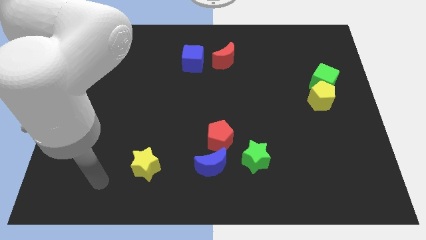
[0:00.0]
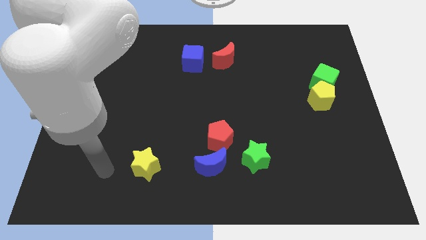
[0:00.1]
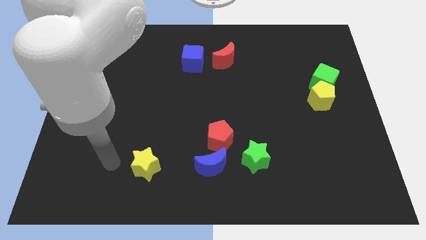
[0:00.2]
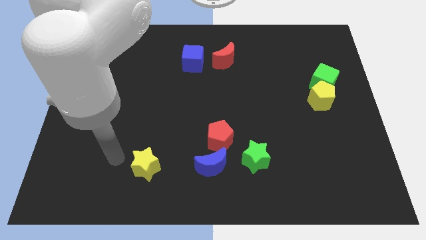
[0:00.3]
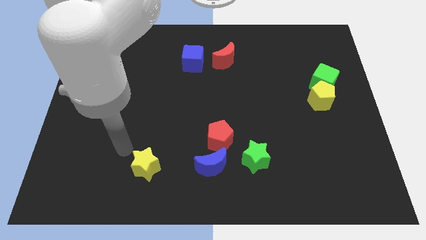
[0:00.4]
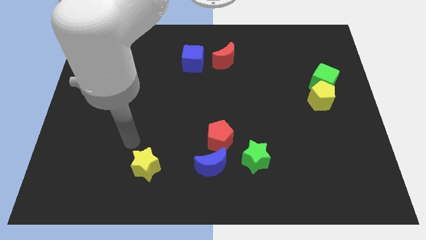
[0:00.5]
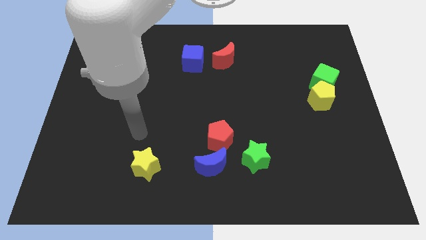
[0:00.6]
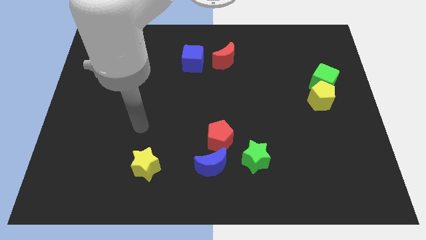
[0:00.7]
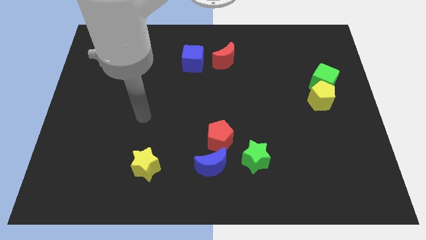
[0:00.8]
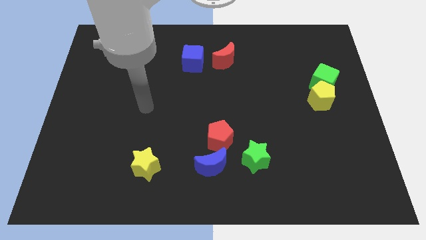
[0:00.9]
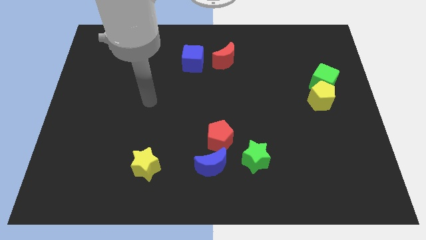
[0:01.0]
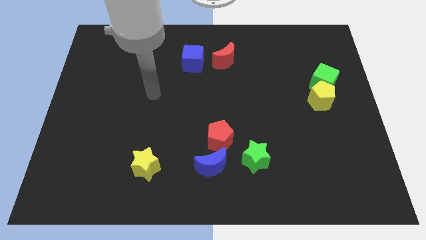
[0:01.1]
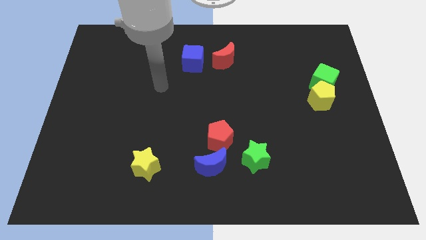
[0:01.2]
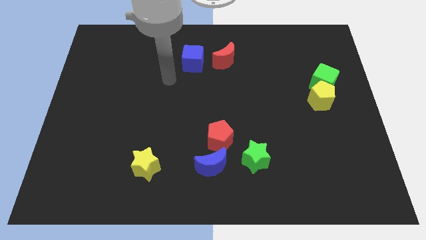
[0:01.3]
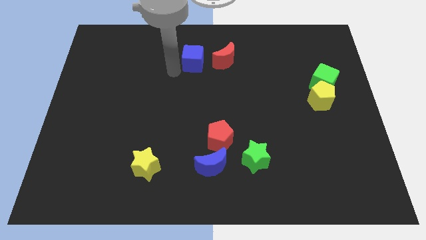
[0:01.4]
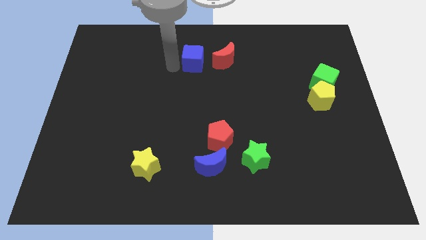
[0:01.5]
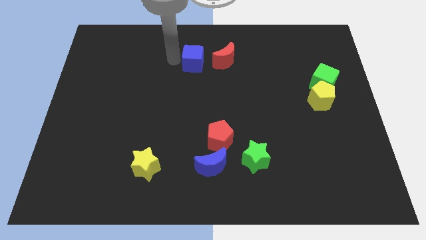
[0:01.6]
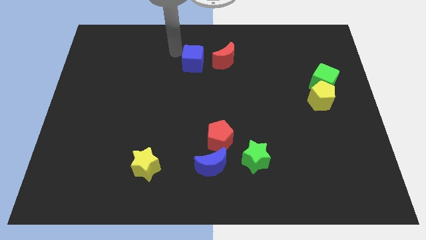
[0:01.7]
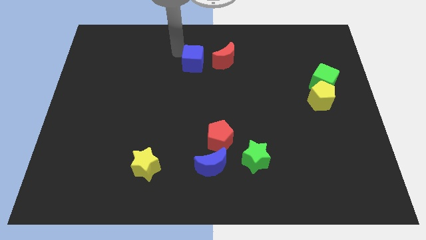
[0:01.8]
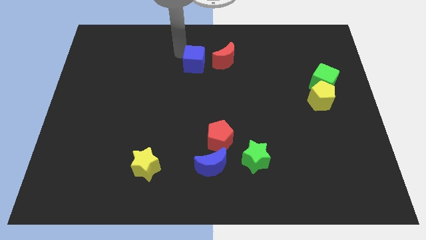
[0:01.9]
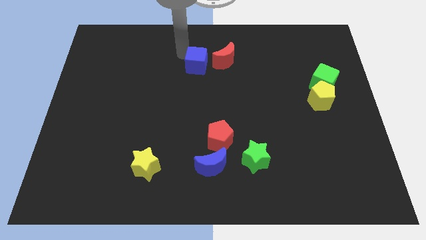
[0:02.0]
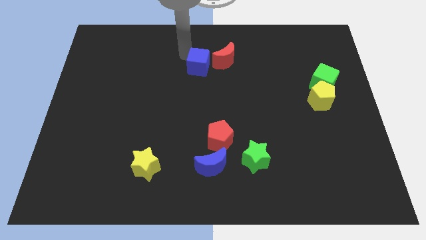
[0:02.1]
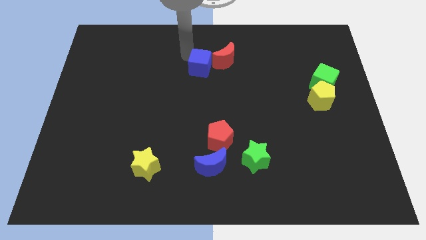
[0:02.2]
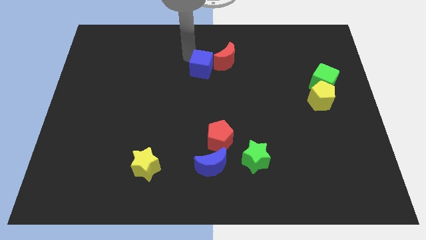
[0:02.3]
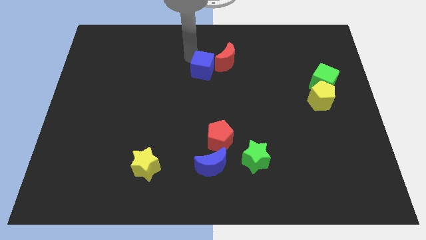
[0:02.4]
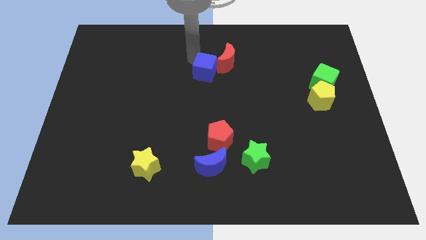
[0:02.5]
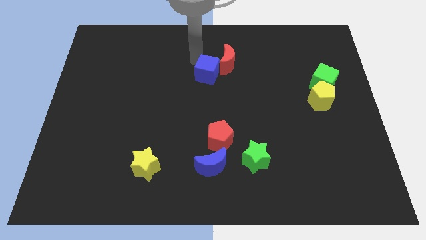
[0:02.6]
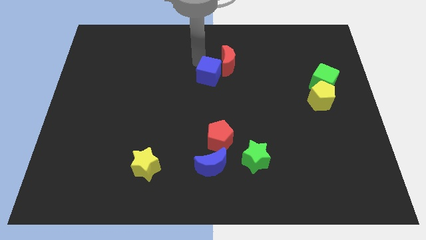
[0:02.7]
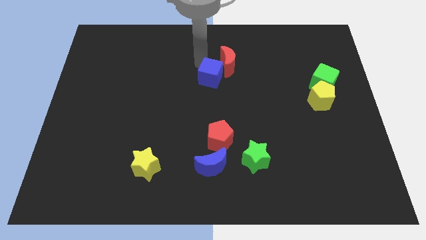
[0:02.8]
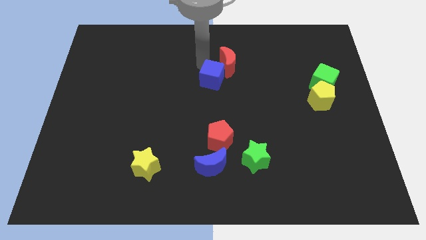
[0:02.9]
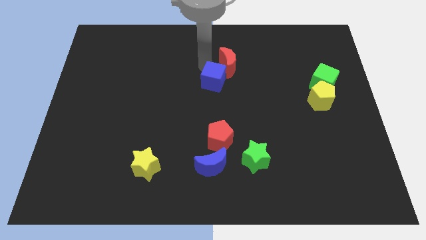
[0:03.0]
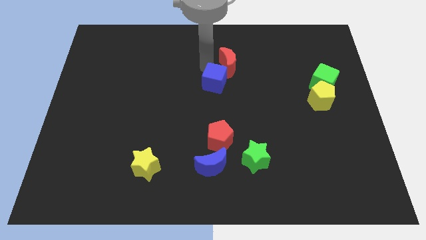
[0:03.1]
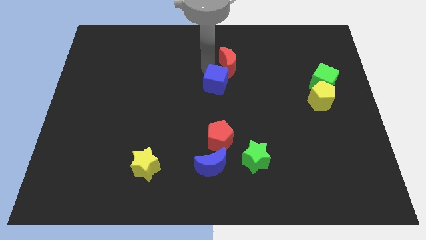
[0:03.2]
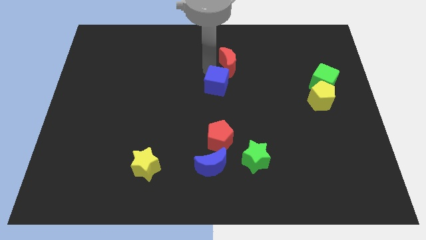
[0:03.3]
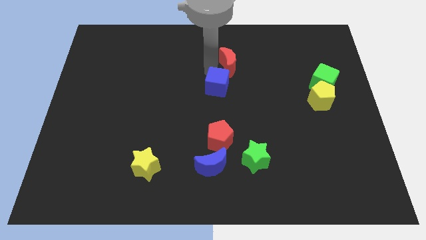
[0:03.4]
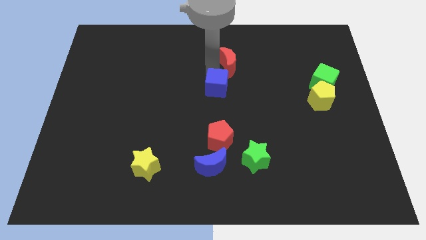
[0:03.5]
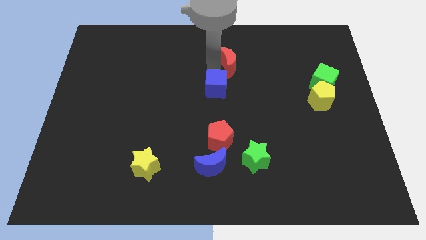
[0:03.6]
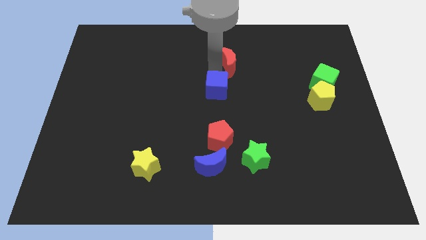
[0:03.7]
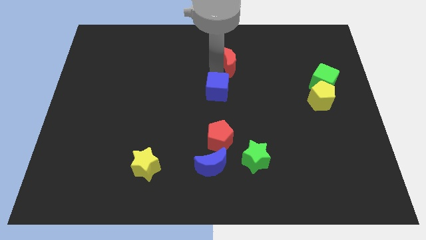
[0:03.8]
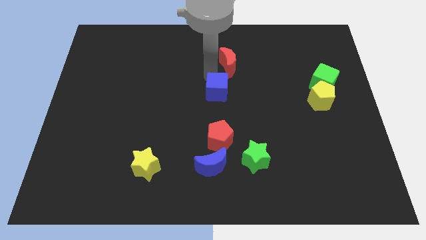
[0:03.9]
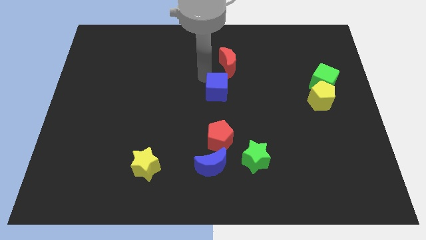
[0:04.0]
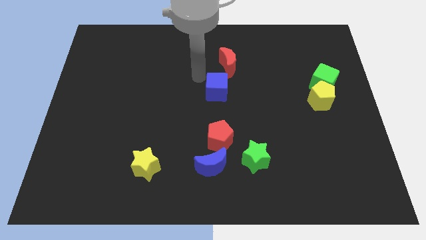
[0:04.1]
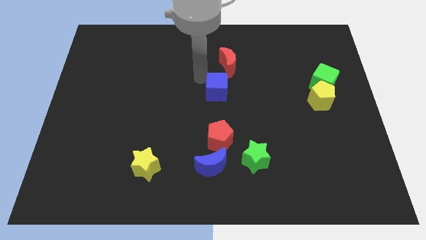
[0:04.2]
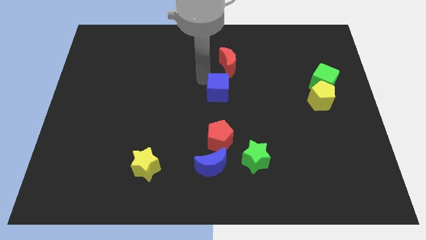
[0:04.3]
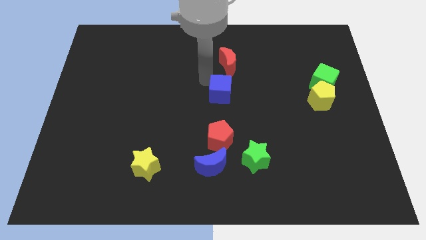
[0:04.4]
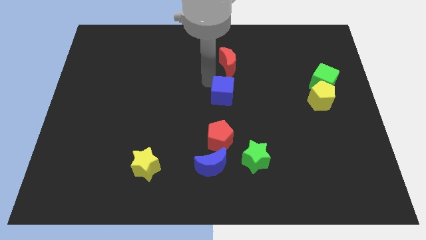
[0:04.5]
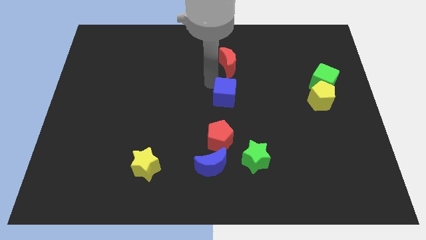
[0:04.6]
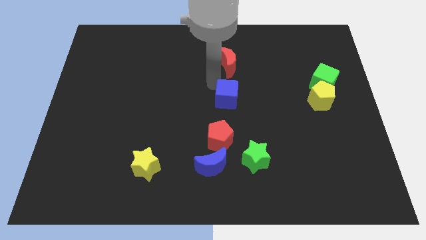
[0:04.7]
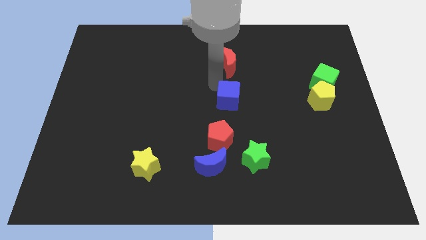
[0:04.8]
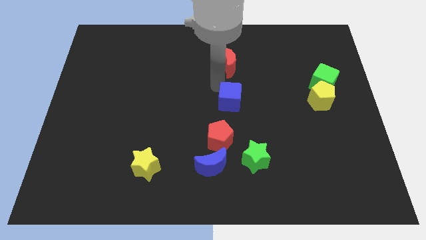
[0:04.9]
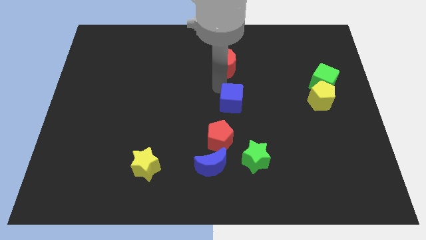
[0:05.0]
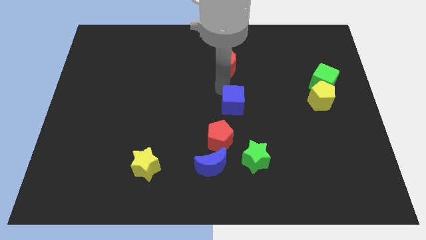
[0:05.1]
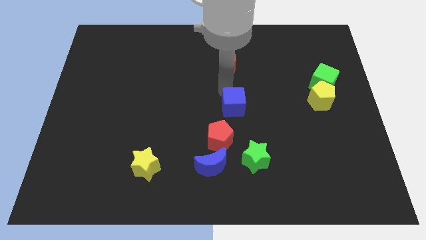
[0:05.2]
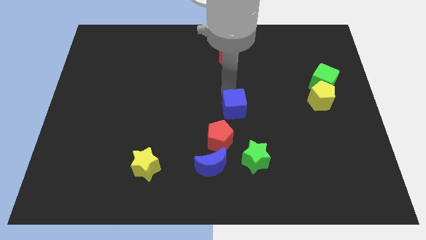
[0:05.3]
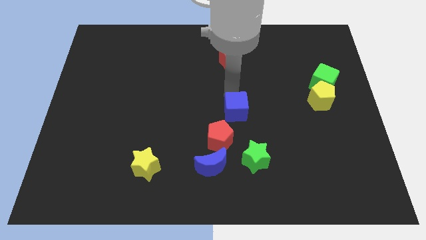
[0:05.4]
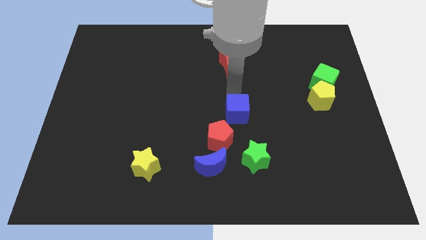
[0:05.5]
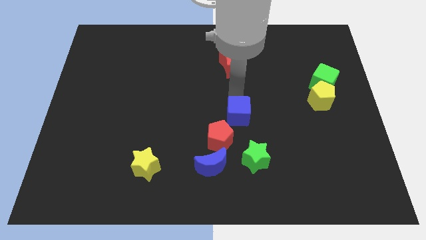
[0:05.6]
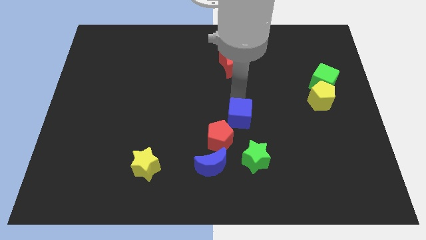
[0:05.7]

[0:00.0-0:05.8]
move the blue cube down and to the right

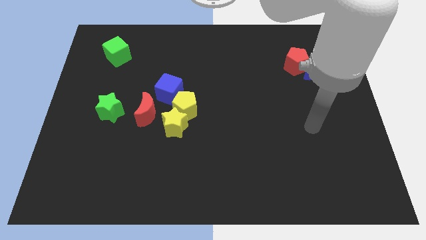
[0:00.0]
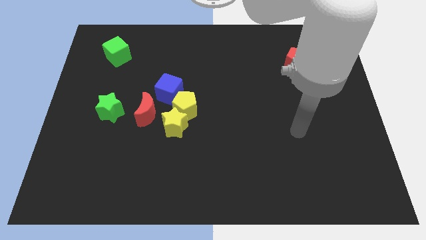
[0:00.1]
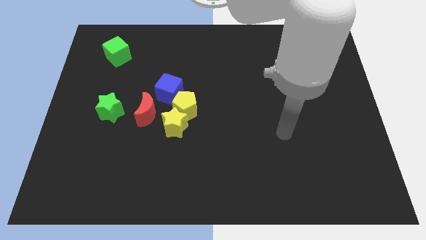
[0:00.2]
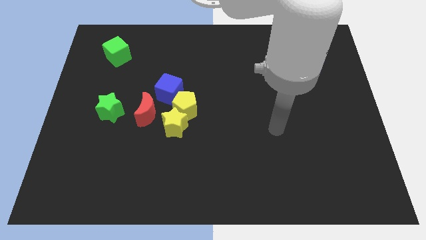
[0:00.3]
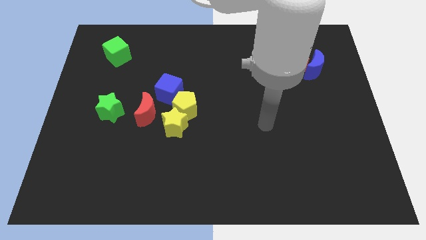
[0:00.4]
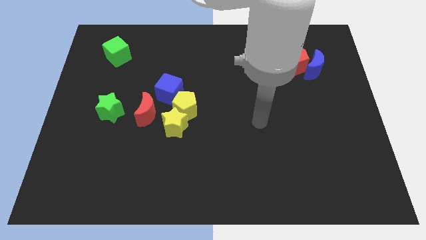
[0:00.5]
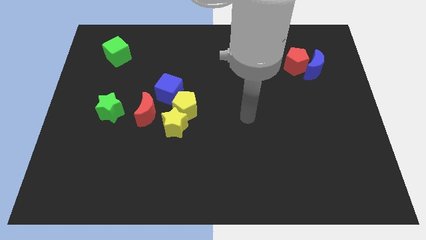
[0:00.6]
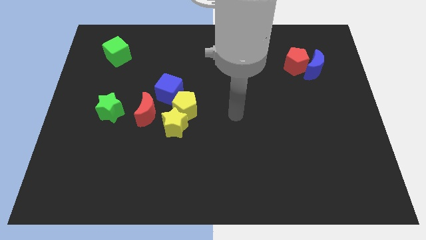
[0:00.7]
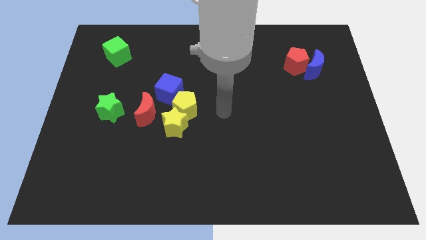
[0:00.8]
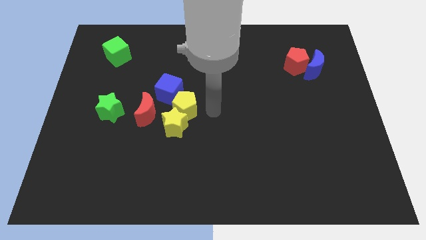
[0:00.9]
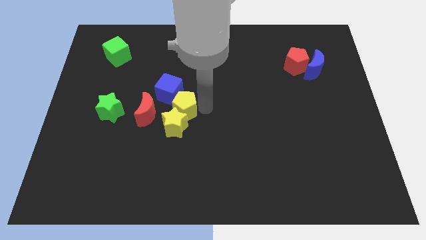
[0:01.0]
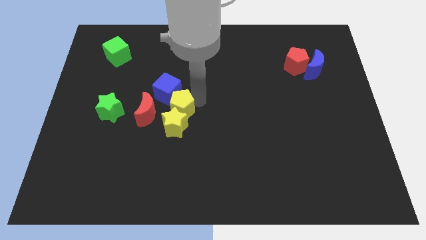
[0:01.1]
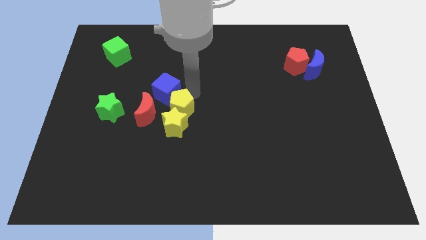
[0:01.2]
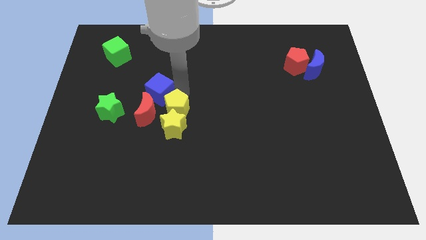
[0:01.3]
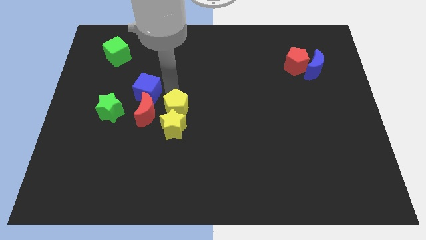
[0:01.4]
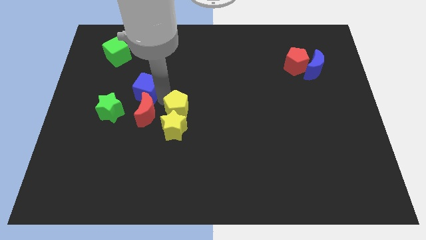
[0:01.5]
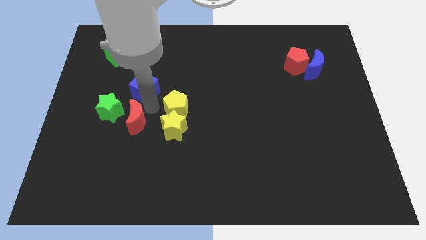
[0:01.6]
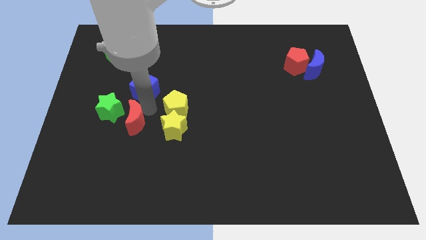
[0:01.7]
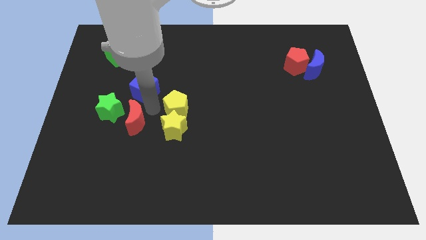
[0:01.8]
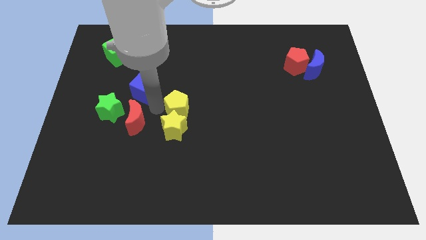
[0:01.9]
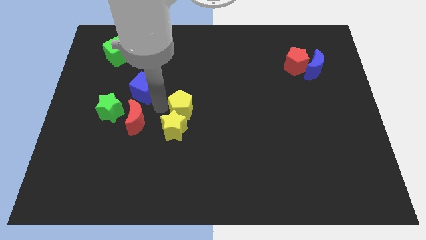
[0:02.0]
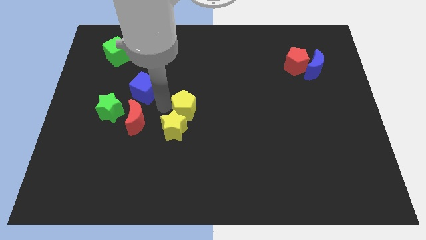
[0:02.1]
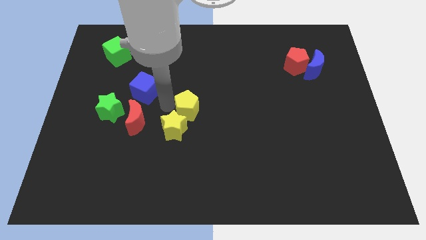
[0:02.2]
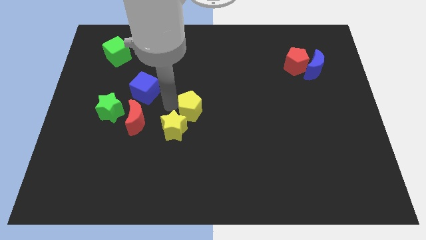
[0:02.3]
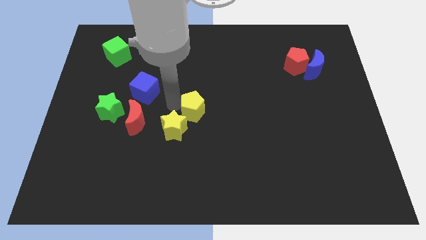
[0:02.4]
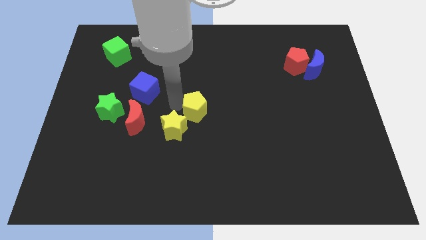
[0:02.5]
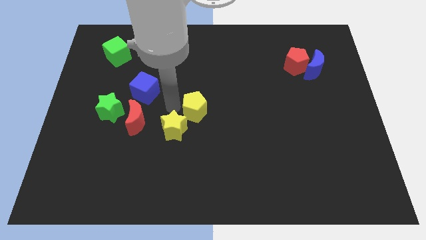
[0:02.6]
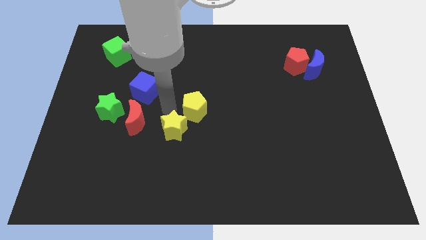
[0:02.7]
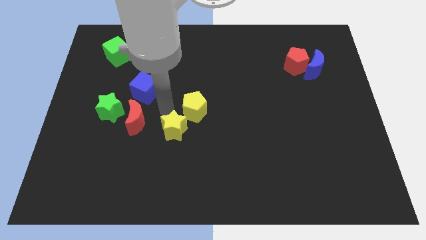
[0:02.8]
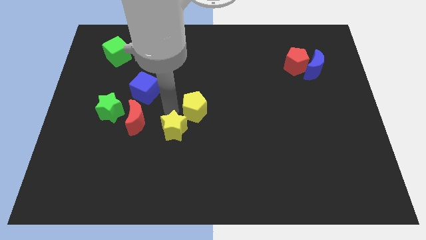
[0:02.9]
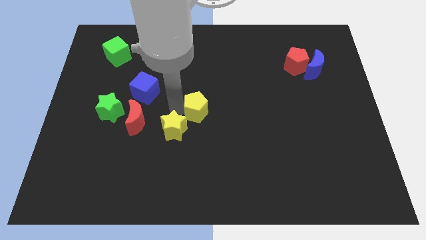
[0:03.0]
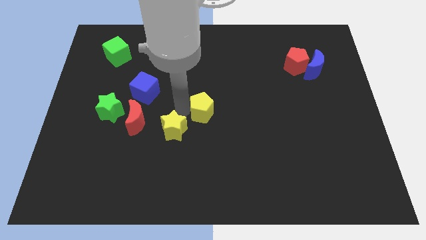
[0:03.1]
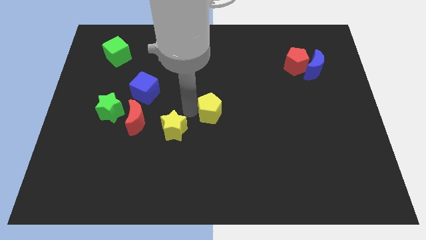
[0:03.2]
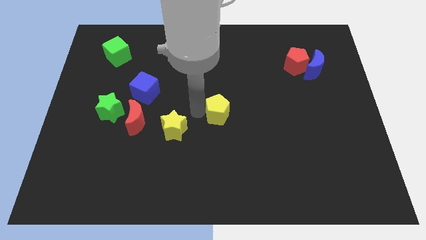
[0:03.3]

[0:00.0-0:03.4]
slide the yellow pentagon a little right
